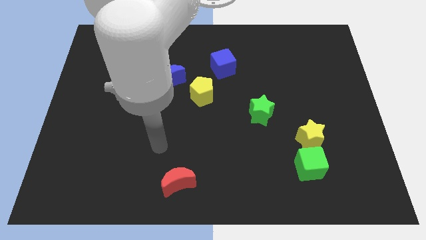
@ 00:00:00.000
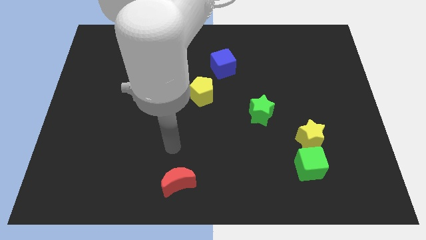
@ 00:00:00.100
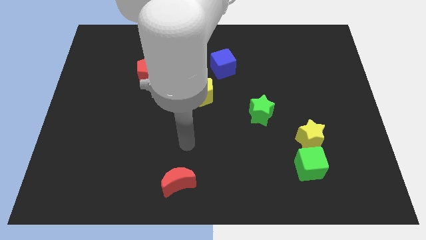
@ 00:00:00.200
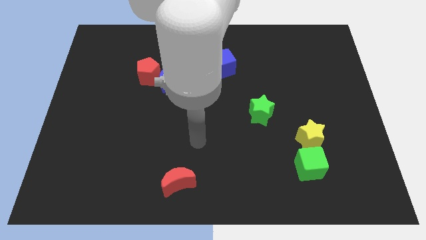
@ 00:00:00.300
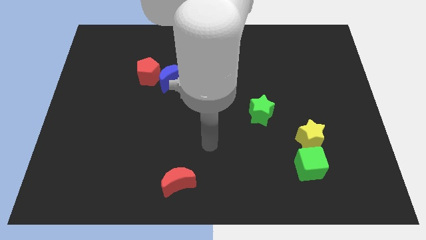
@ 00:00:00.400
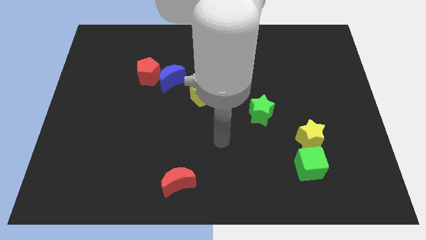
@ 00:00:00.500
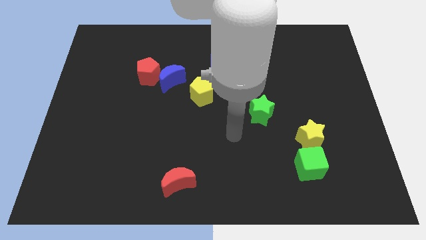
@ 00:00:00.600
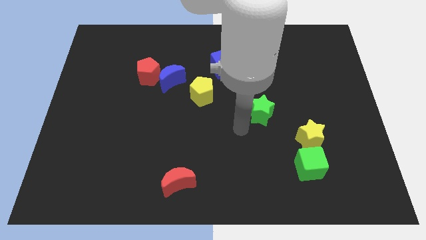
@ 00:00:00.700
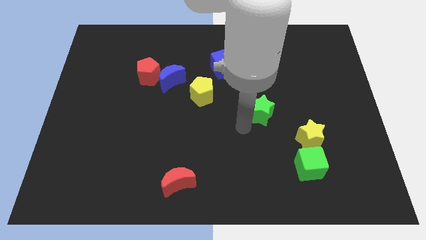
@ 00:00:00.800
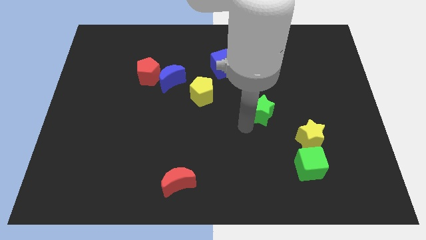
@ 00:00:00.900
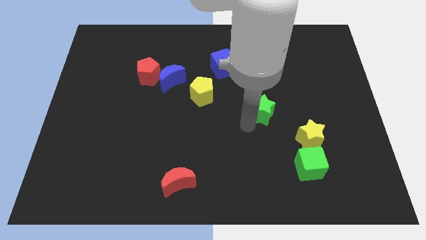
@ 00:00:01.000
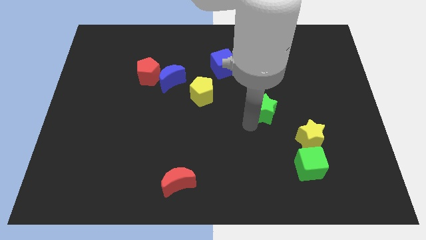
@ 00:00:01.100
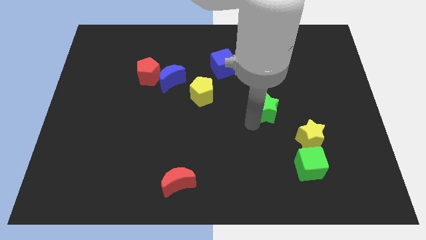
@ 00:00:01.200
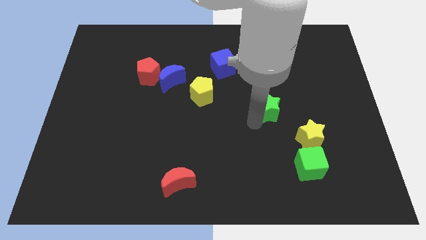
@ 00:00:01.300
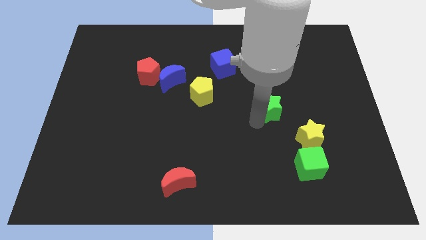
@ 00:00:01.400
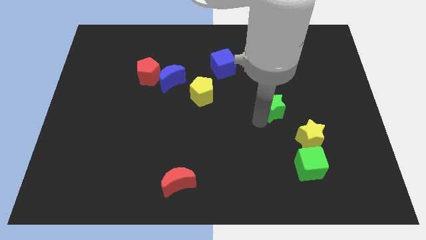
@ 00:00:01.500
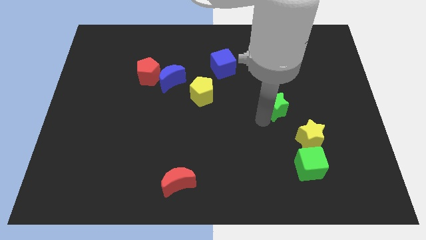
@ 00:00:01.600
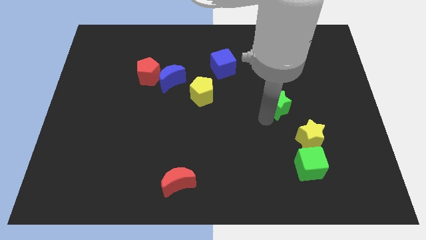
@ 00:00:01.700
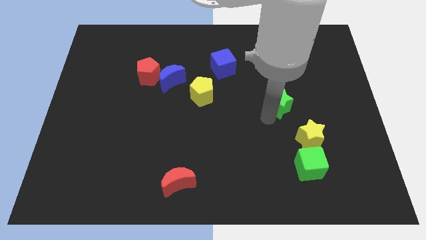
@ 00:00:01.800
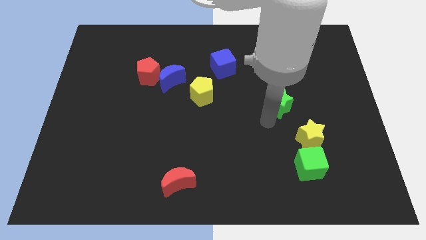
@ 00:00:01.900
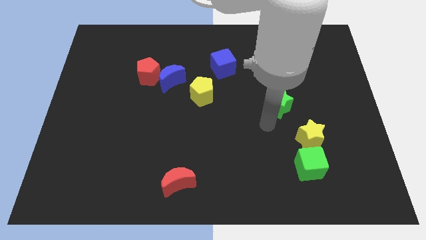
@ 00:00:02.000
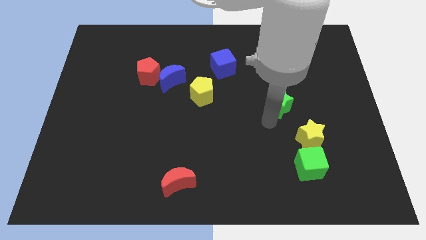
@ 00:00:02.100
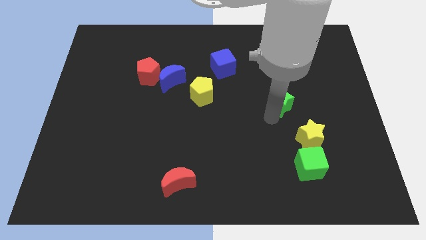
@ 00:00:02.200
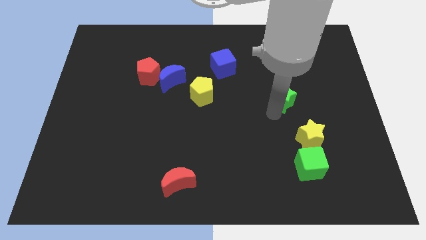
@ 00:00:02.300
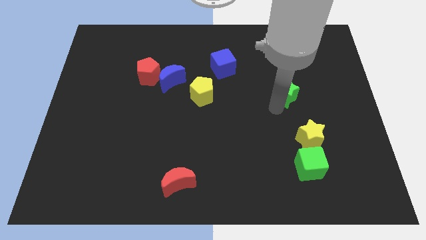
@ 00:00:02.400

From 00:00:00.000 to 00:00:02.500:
slide the green star a bit upwards and right diagonally

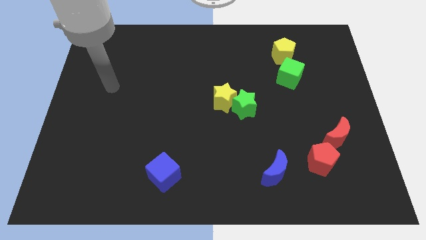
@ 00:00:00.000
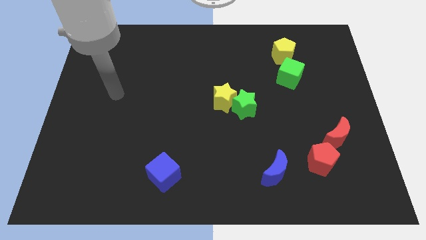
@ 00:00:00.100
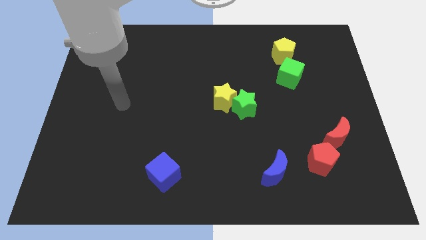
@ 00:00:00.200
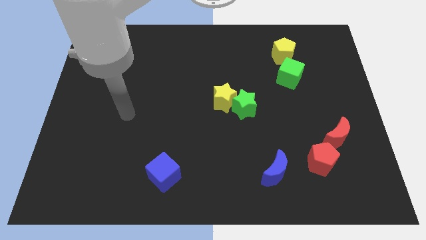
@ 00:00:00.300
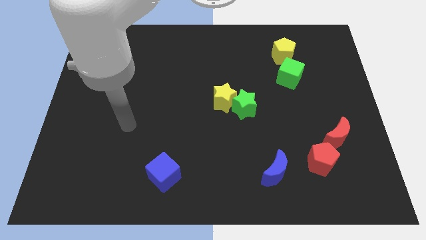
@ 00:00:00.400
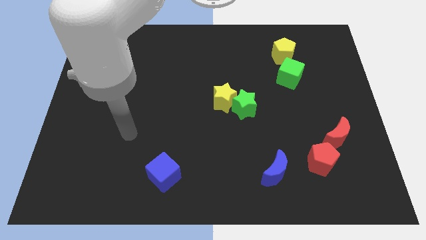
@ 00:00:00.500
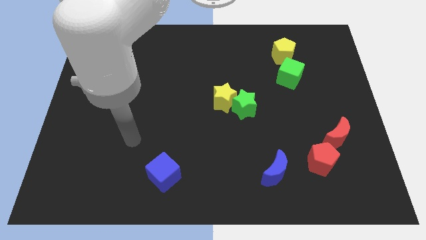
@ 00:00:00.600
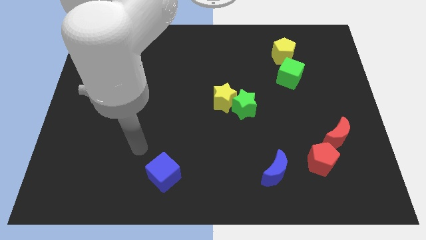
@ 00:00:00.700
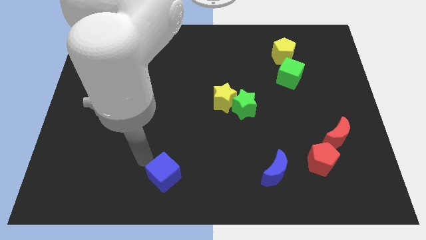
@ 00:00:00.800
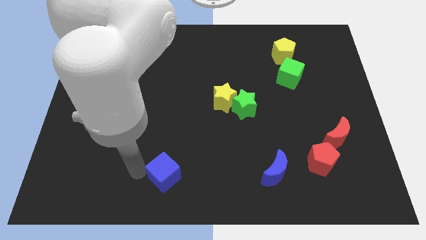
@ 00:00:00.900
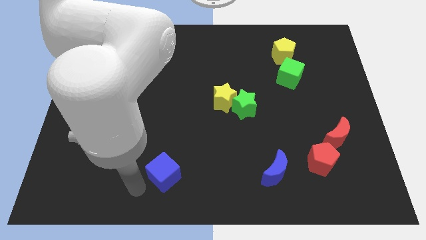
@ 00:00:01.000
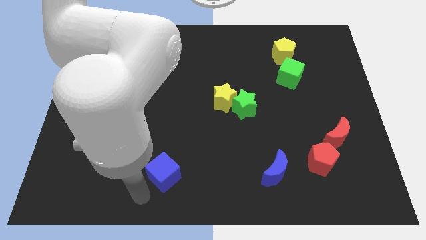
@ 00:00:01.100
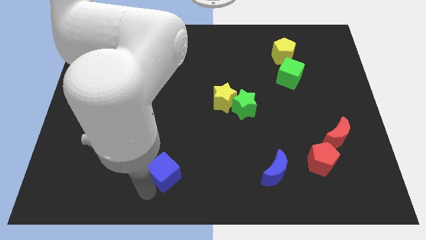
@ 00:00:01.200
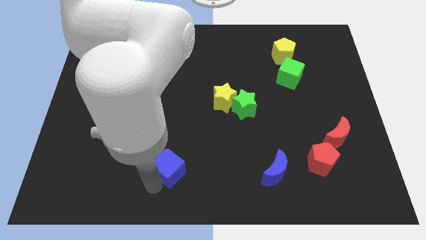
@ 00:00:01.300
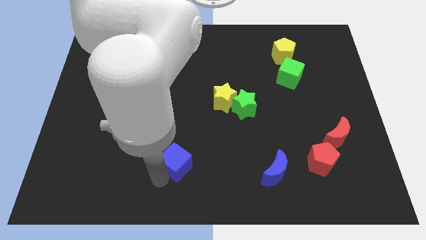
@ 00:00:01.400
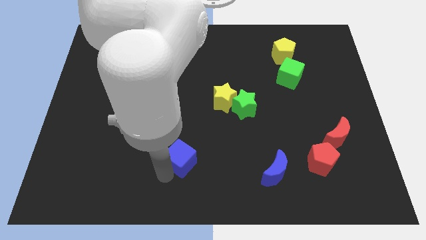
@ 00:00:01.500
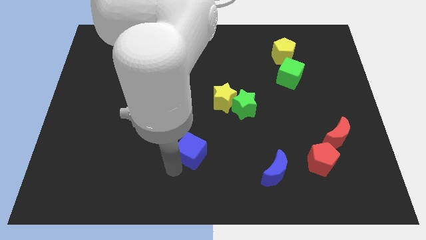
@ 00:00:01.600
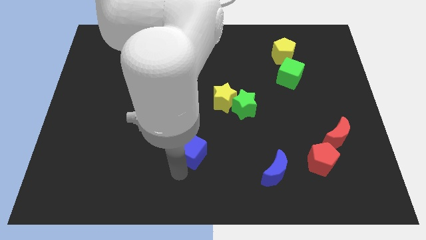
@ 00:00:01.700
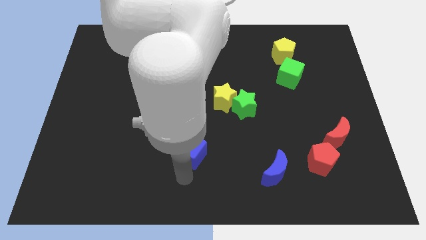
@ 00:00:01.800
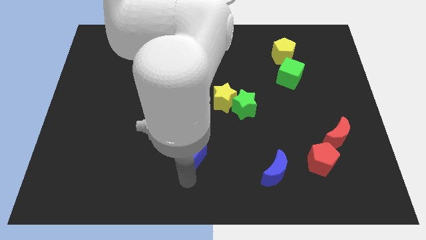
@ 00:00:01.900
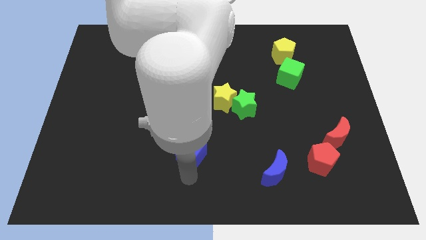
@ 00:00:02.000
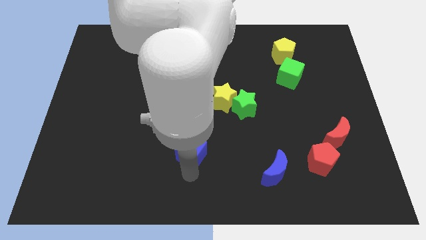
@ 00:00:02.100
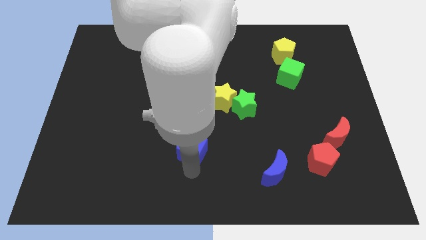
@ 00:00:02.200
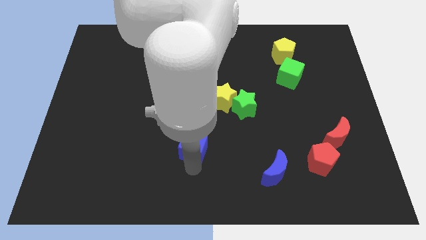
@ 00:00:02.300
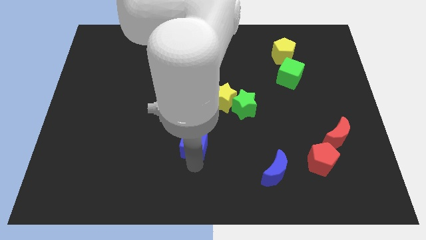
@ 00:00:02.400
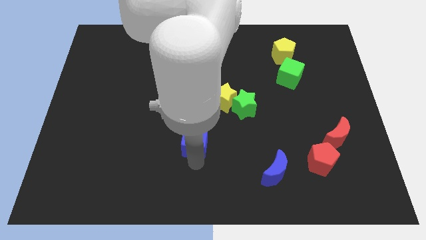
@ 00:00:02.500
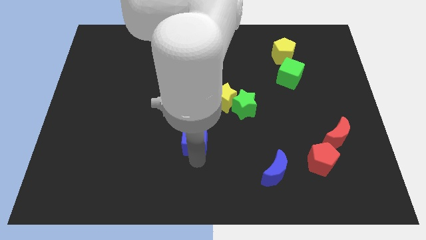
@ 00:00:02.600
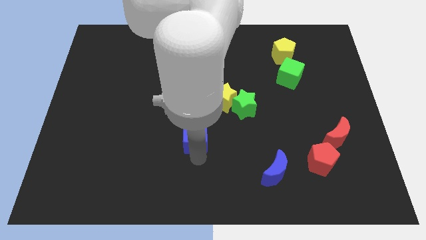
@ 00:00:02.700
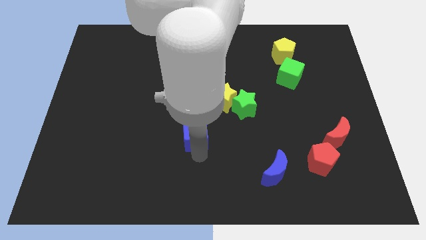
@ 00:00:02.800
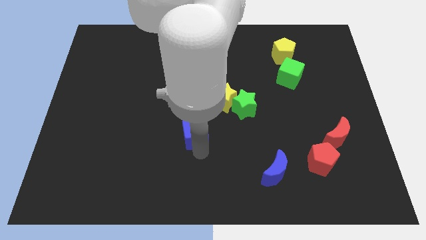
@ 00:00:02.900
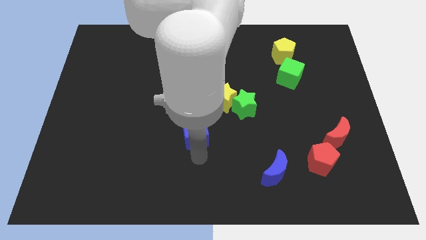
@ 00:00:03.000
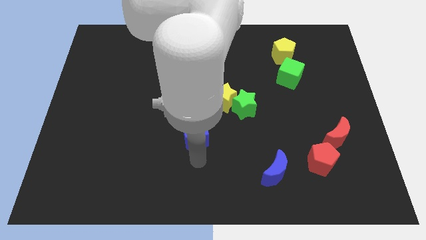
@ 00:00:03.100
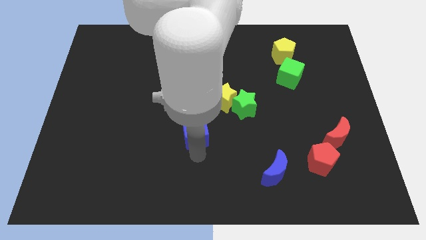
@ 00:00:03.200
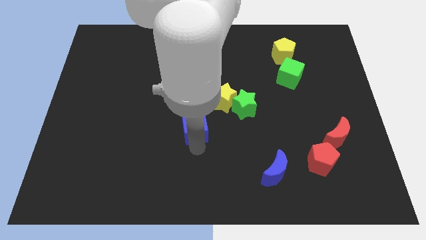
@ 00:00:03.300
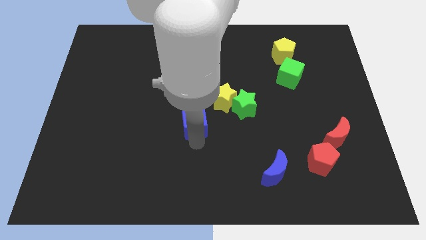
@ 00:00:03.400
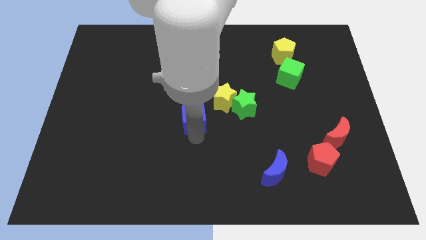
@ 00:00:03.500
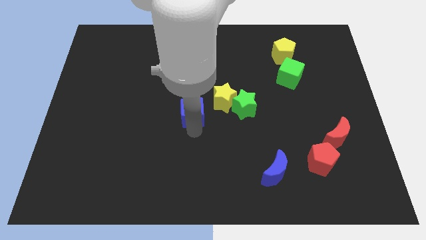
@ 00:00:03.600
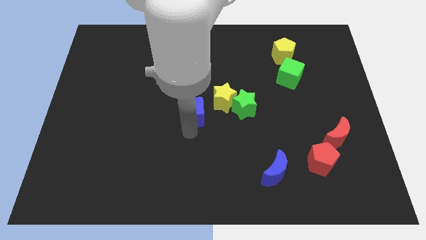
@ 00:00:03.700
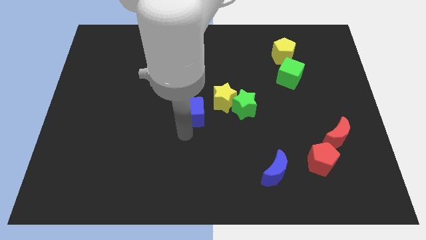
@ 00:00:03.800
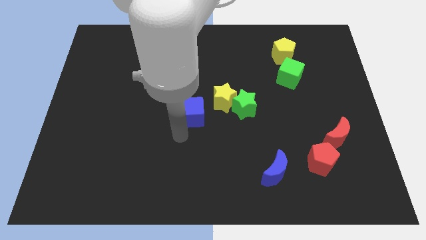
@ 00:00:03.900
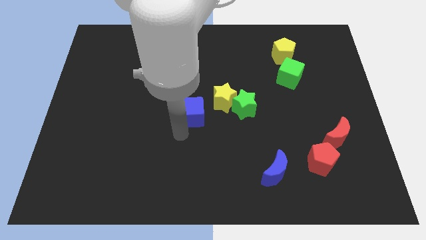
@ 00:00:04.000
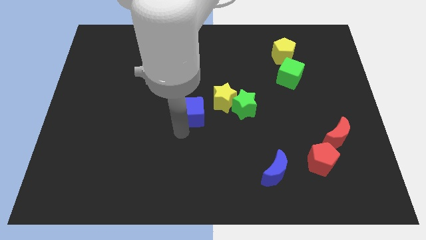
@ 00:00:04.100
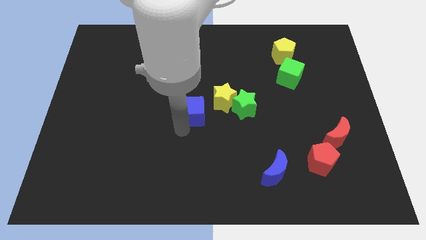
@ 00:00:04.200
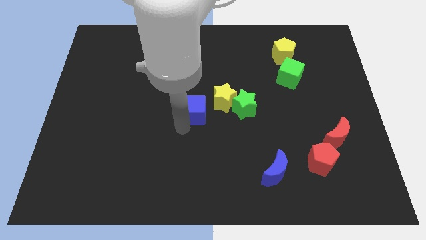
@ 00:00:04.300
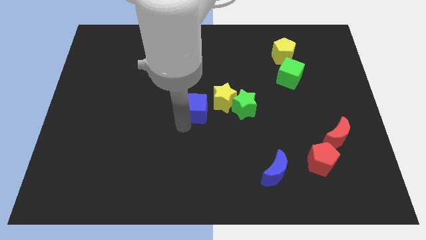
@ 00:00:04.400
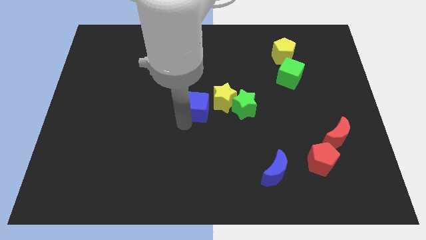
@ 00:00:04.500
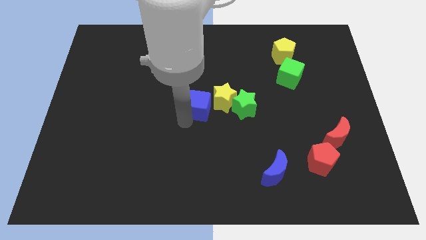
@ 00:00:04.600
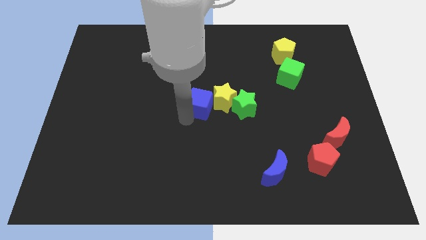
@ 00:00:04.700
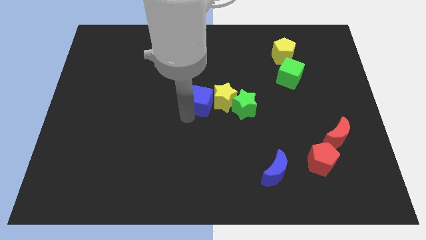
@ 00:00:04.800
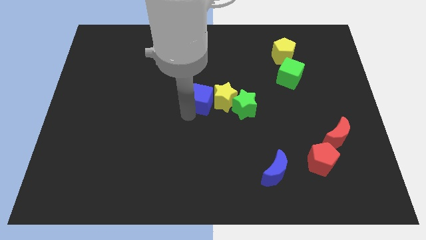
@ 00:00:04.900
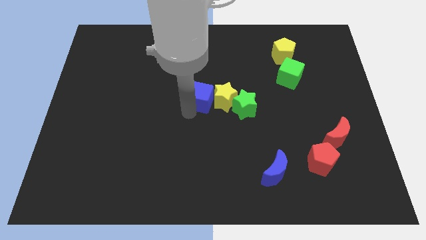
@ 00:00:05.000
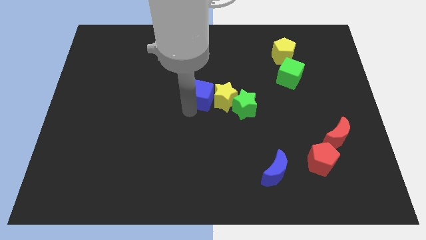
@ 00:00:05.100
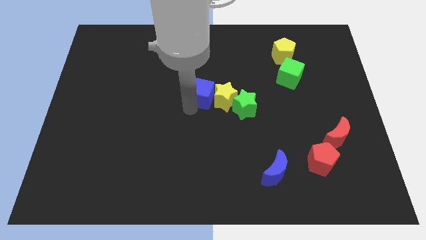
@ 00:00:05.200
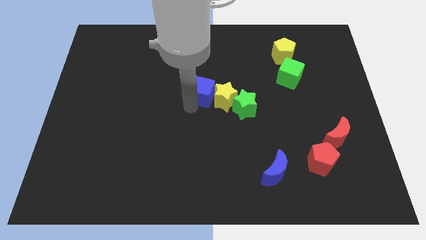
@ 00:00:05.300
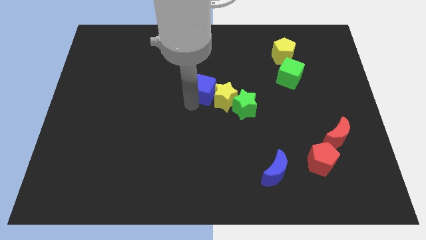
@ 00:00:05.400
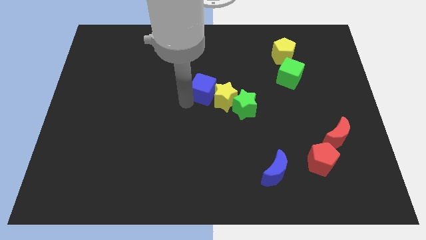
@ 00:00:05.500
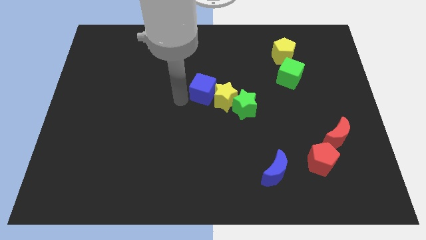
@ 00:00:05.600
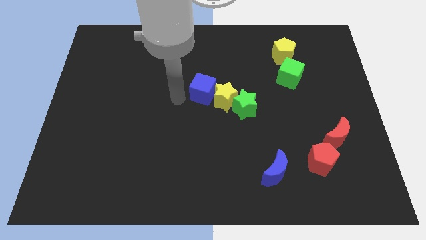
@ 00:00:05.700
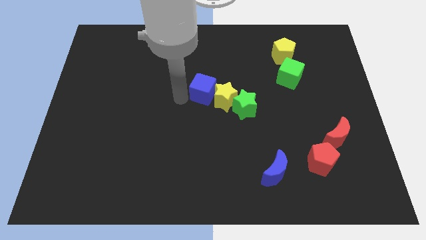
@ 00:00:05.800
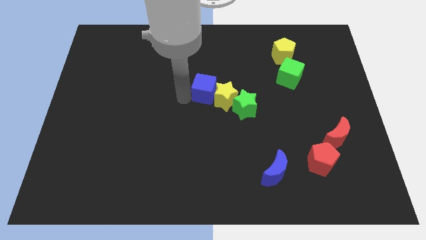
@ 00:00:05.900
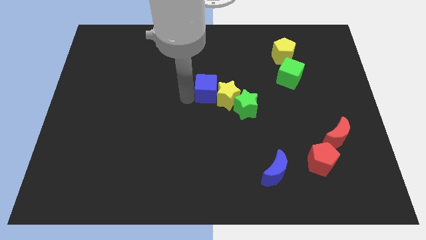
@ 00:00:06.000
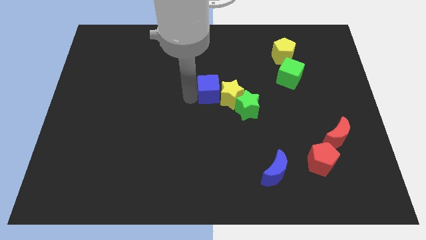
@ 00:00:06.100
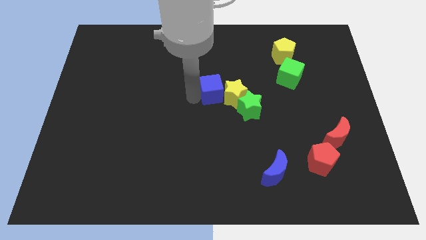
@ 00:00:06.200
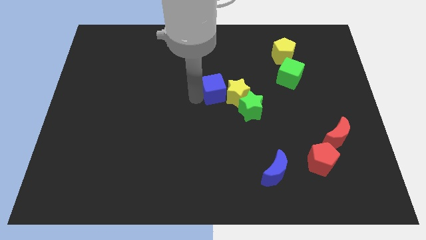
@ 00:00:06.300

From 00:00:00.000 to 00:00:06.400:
push the blue cube diagonally upwards and to the right
